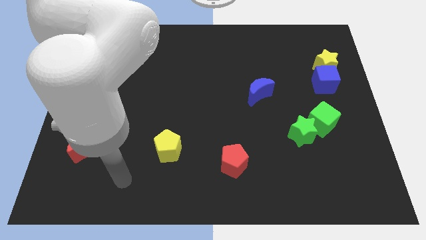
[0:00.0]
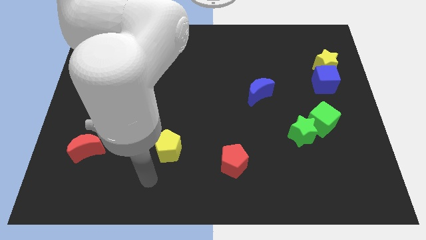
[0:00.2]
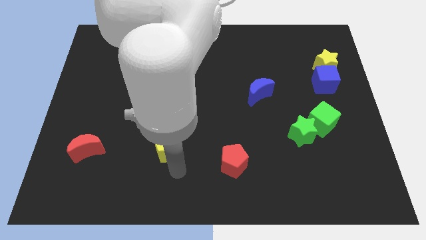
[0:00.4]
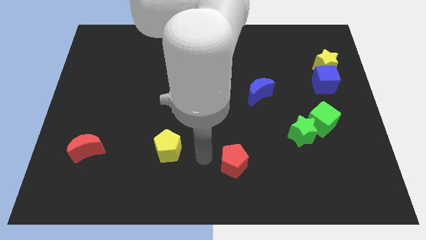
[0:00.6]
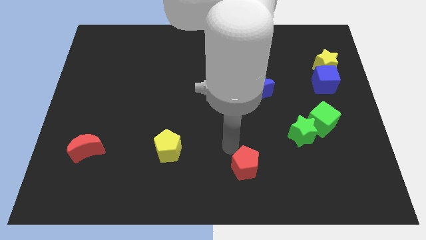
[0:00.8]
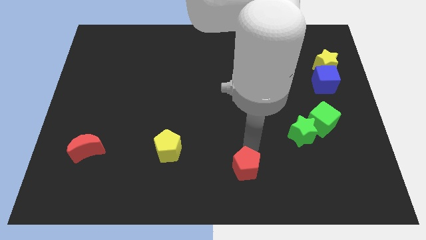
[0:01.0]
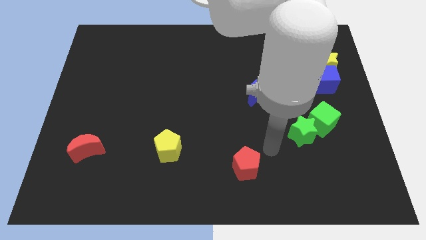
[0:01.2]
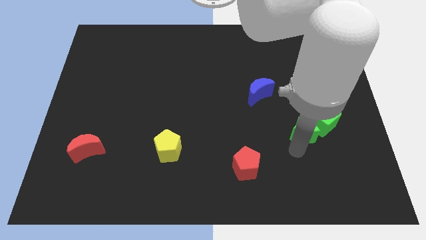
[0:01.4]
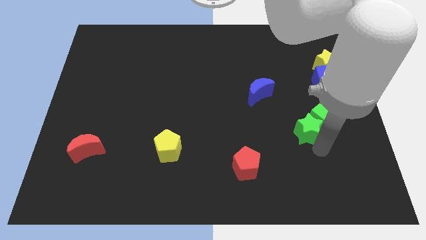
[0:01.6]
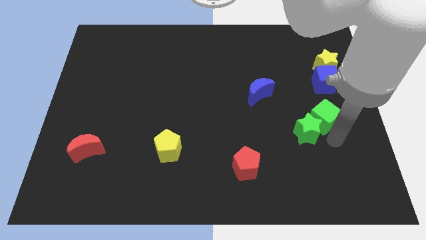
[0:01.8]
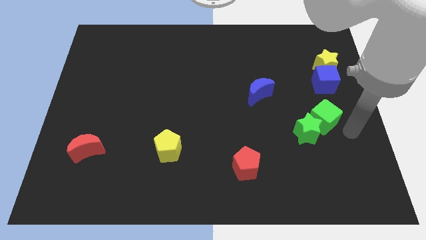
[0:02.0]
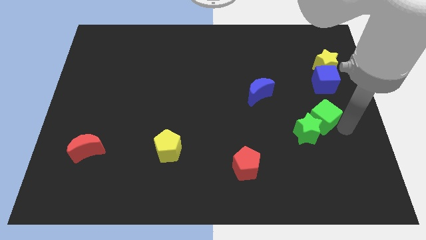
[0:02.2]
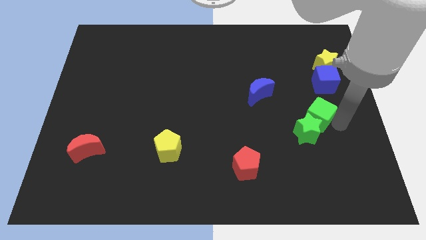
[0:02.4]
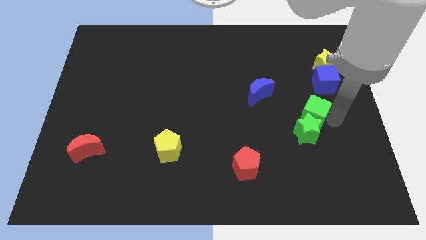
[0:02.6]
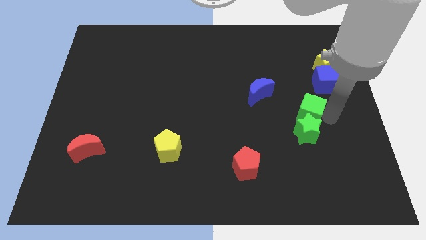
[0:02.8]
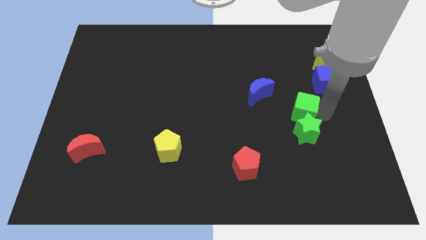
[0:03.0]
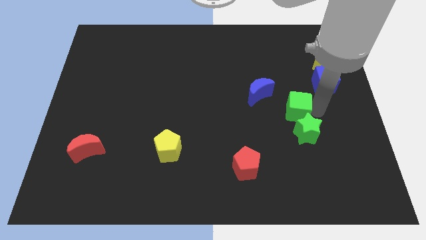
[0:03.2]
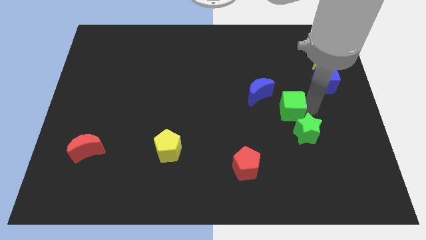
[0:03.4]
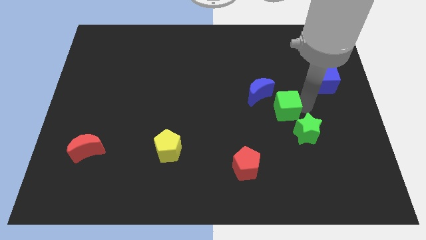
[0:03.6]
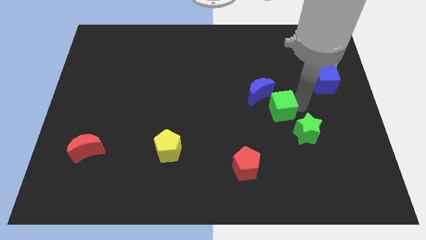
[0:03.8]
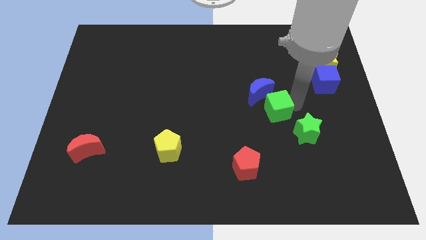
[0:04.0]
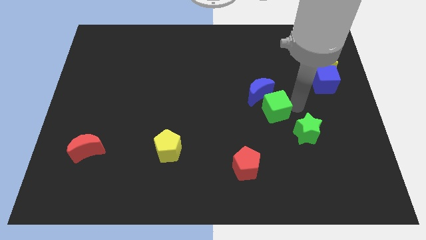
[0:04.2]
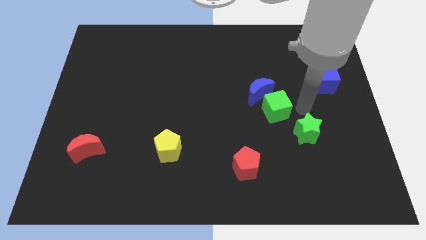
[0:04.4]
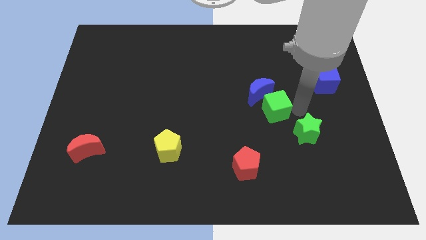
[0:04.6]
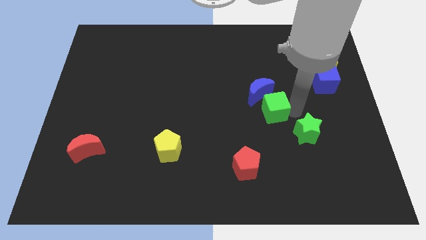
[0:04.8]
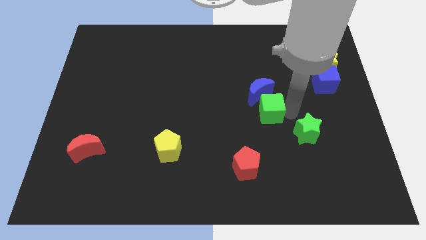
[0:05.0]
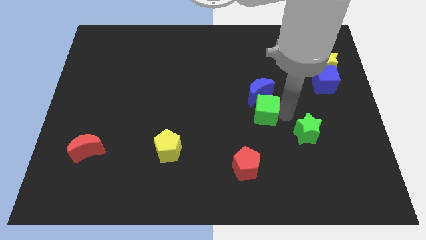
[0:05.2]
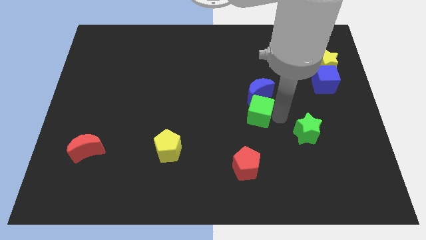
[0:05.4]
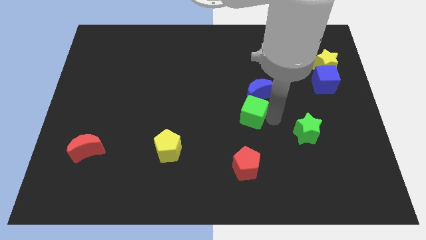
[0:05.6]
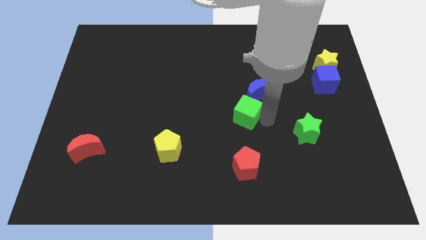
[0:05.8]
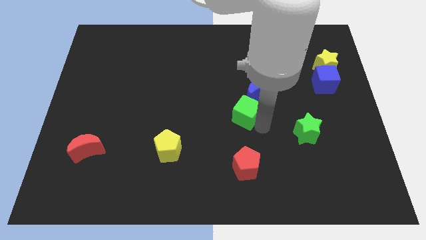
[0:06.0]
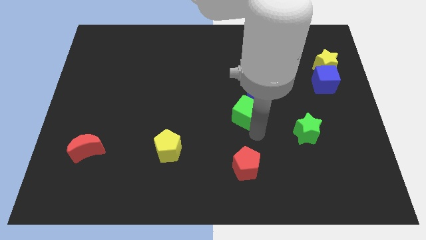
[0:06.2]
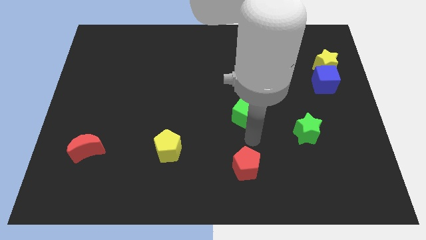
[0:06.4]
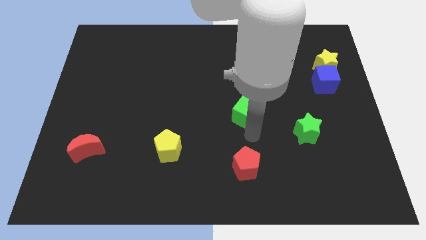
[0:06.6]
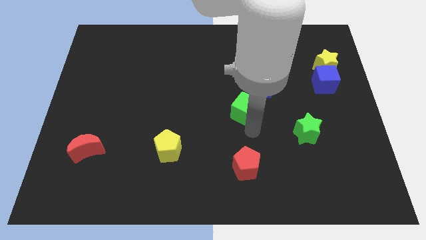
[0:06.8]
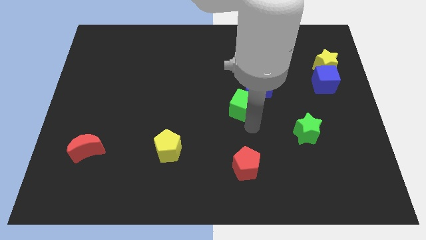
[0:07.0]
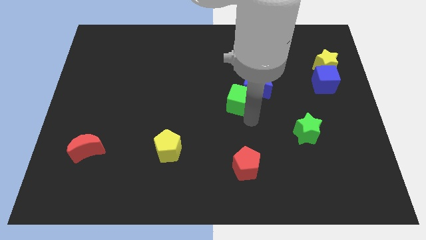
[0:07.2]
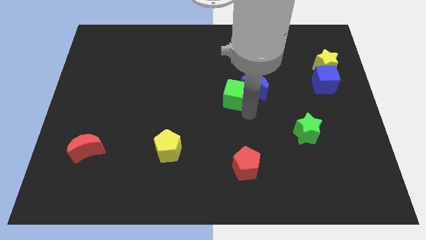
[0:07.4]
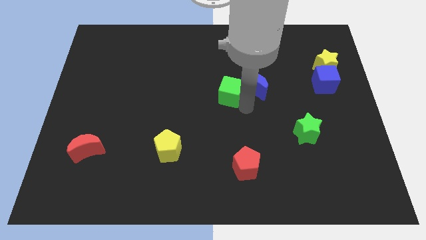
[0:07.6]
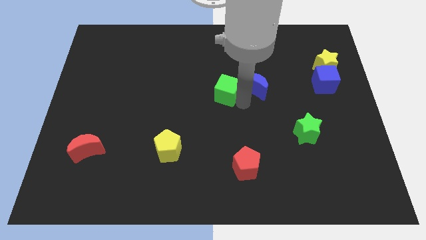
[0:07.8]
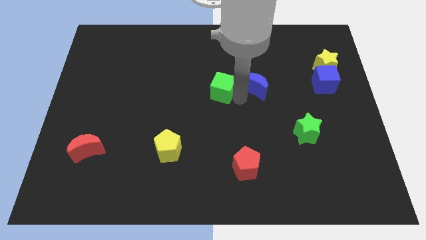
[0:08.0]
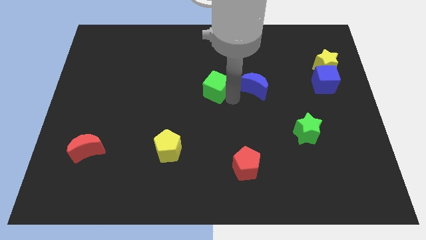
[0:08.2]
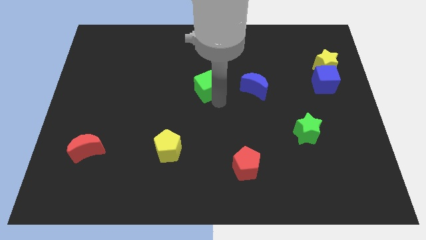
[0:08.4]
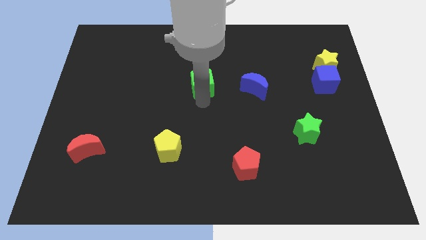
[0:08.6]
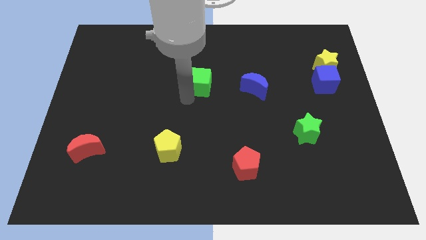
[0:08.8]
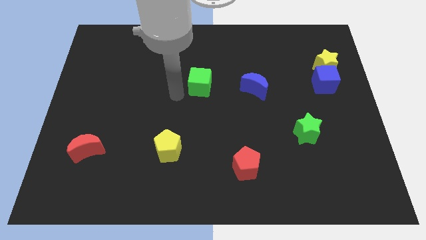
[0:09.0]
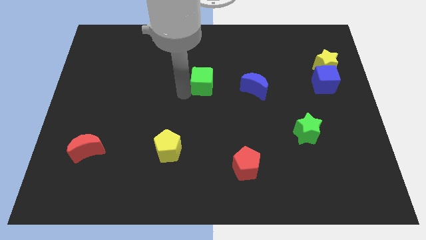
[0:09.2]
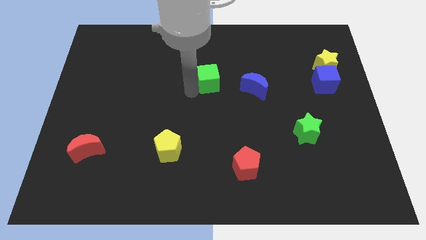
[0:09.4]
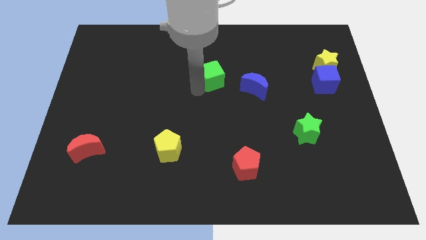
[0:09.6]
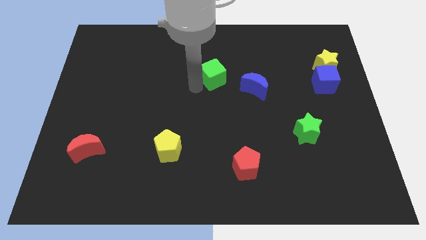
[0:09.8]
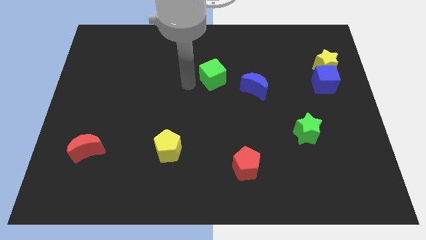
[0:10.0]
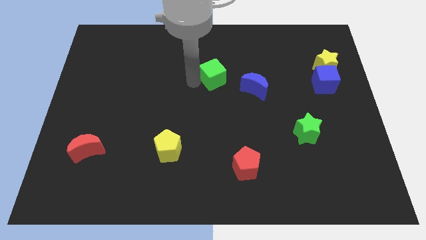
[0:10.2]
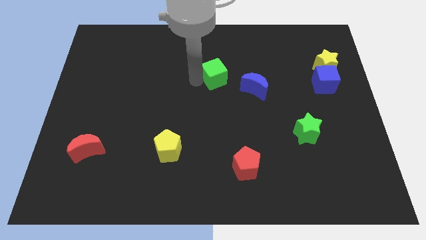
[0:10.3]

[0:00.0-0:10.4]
slide the green cube to the top left of the blue moon

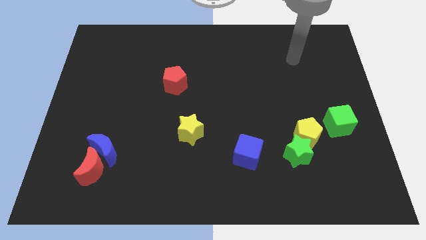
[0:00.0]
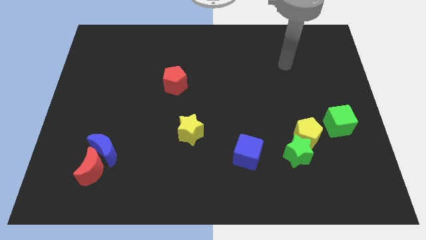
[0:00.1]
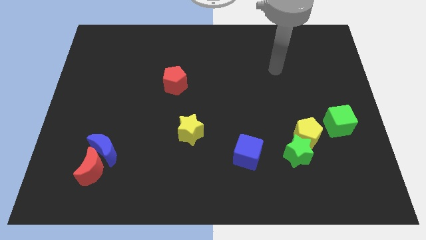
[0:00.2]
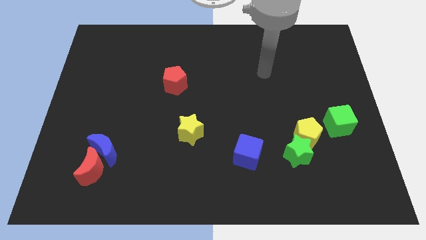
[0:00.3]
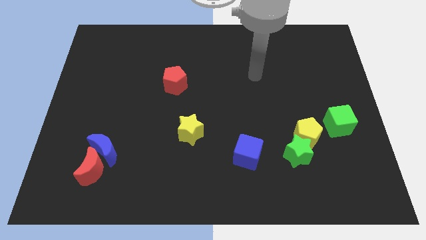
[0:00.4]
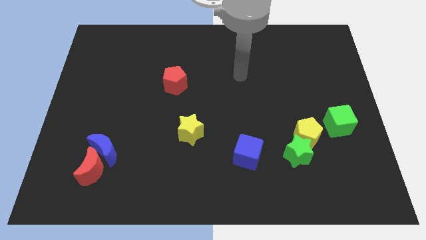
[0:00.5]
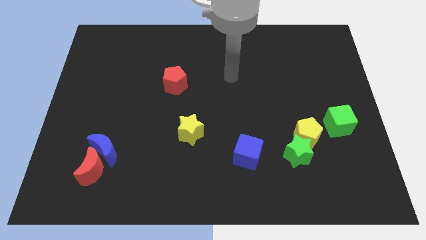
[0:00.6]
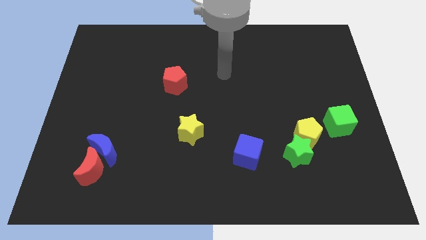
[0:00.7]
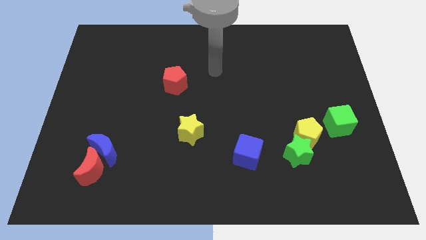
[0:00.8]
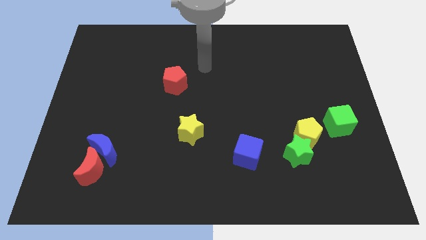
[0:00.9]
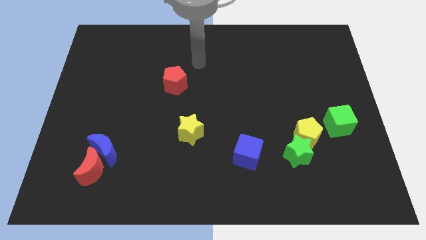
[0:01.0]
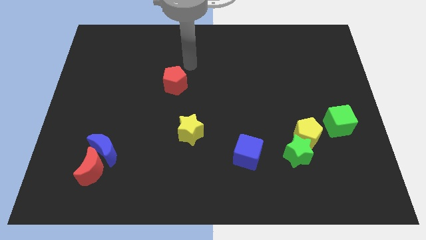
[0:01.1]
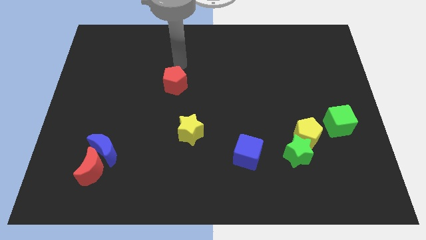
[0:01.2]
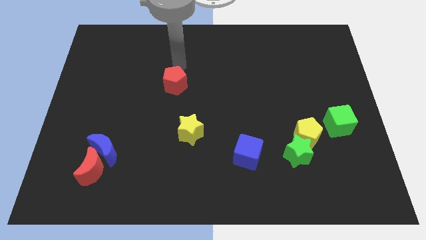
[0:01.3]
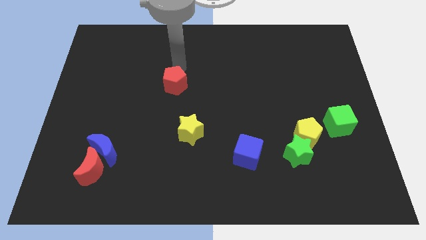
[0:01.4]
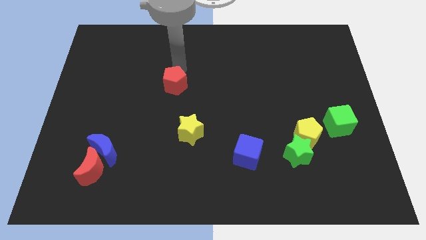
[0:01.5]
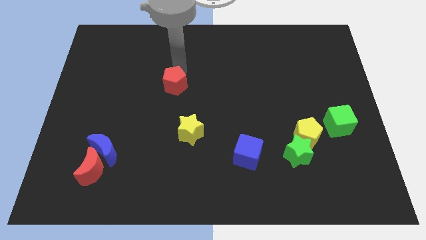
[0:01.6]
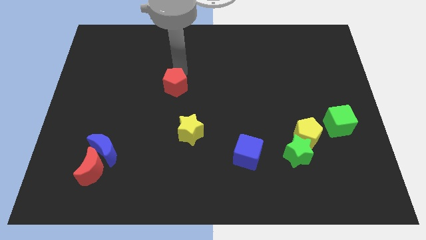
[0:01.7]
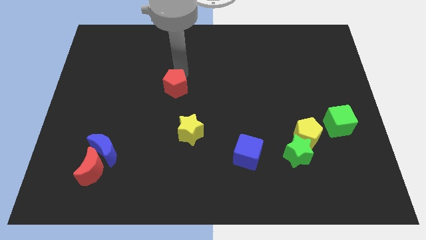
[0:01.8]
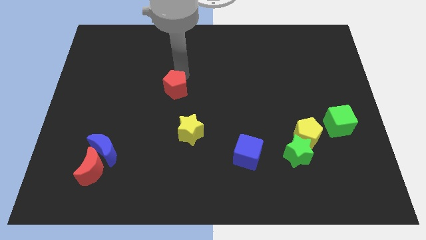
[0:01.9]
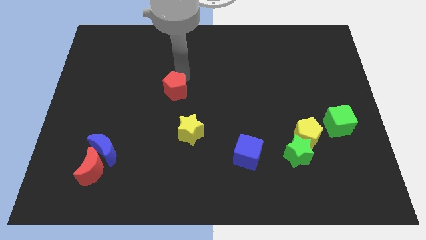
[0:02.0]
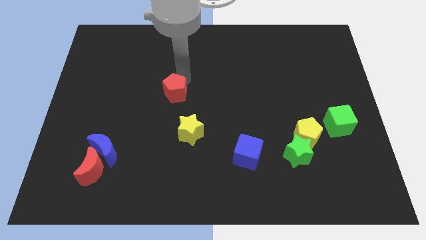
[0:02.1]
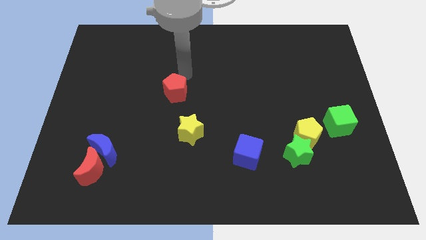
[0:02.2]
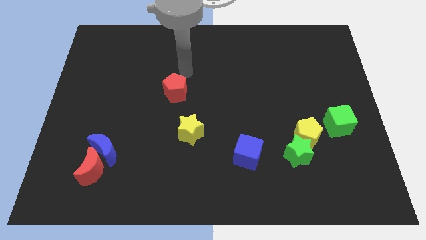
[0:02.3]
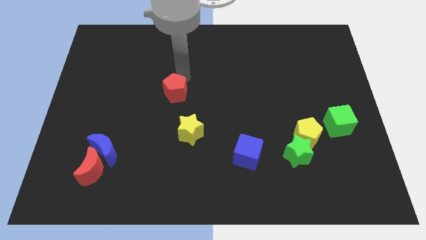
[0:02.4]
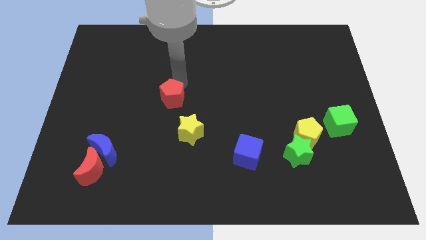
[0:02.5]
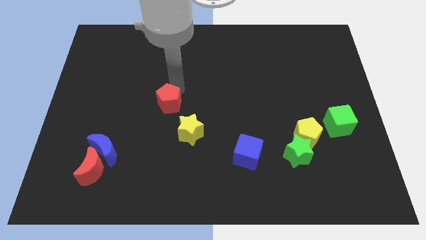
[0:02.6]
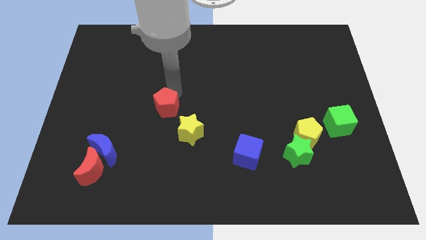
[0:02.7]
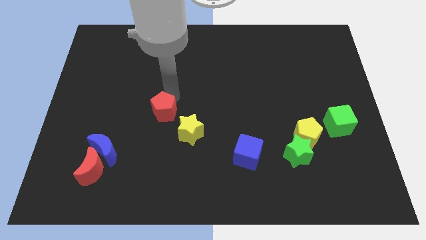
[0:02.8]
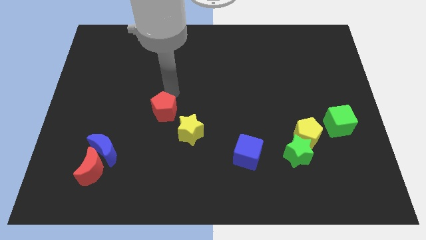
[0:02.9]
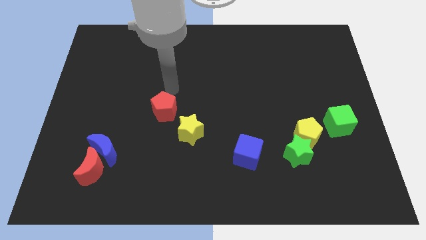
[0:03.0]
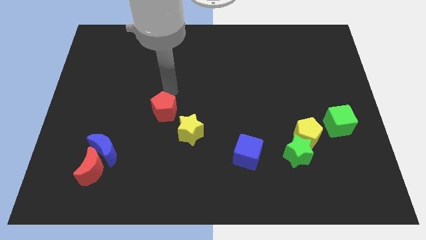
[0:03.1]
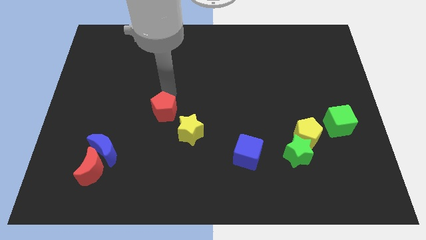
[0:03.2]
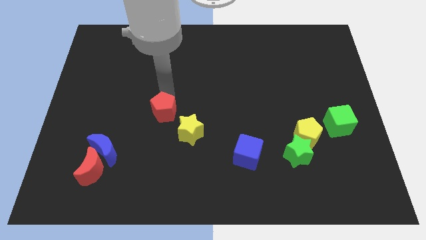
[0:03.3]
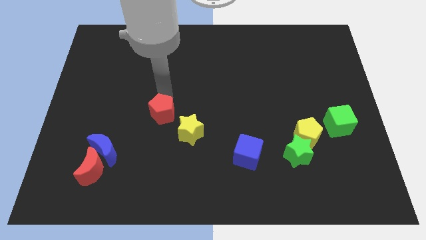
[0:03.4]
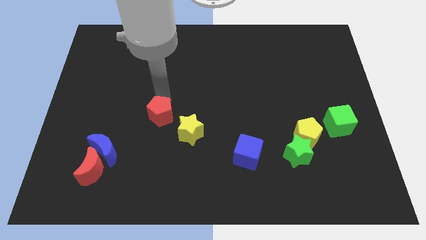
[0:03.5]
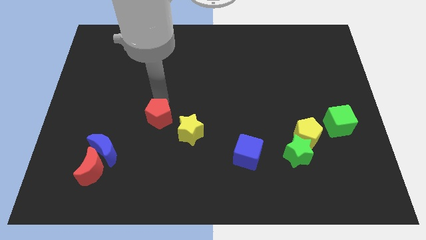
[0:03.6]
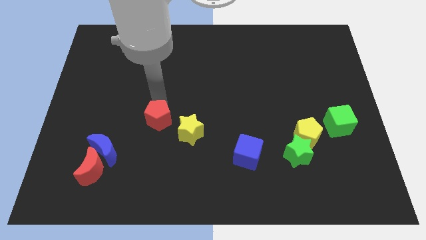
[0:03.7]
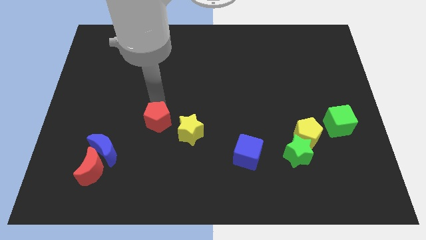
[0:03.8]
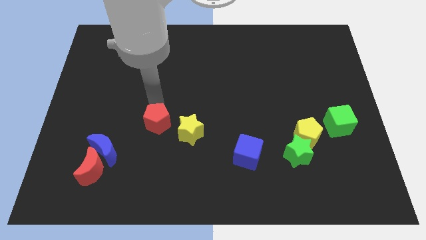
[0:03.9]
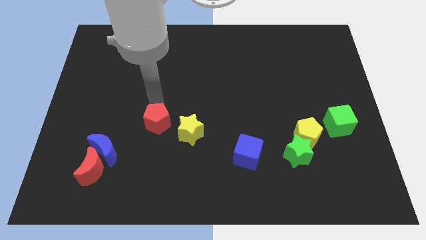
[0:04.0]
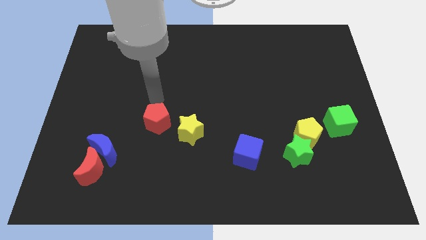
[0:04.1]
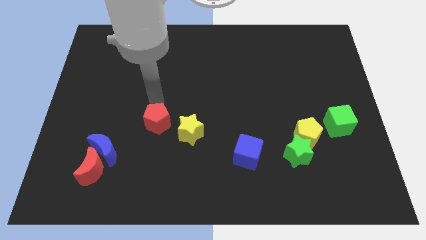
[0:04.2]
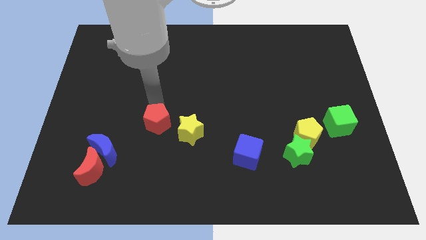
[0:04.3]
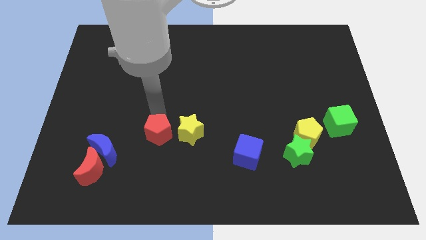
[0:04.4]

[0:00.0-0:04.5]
move the red pentagon to the right side of the blue moon
